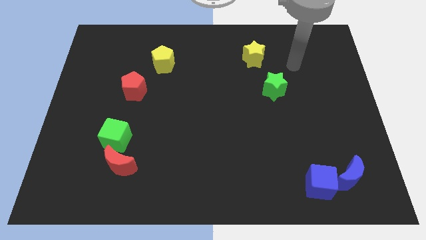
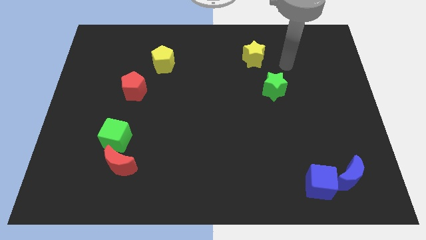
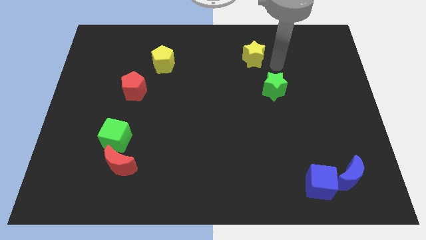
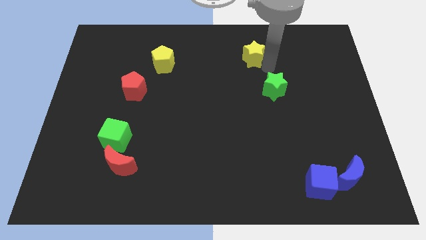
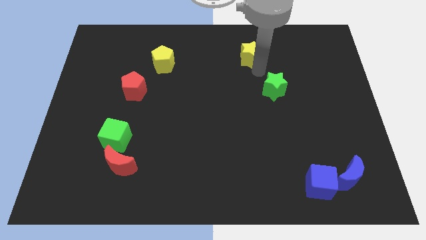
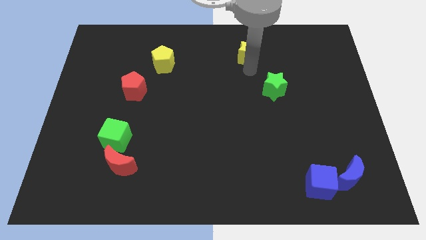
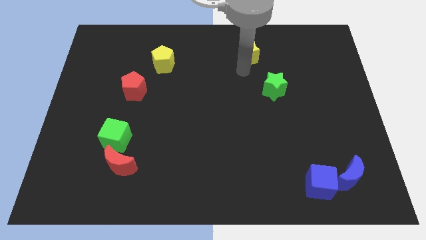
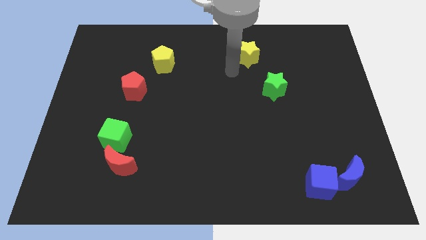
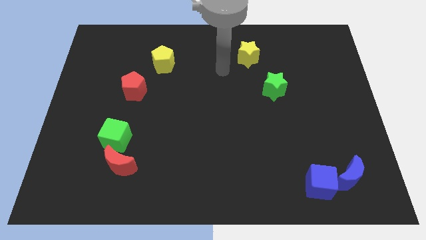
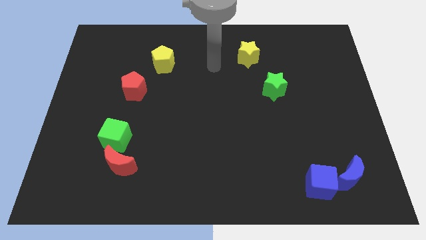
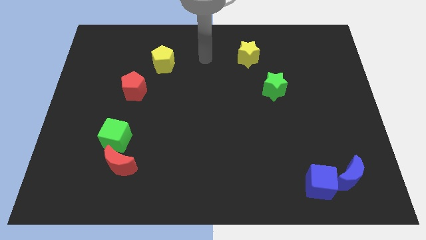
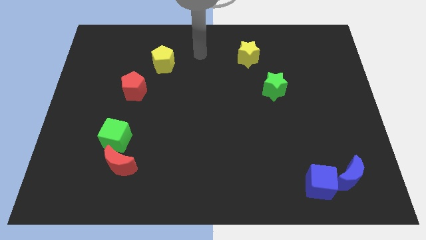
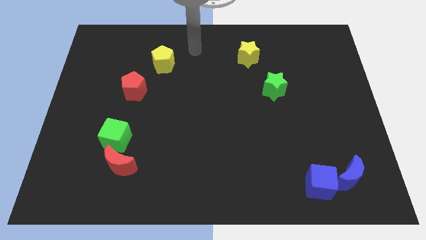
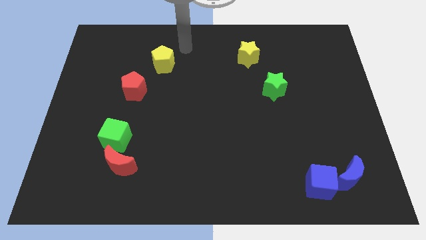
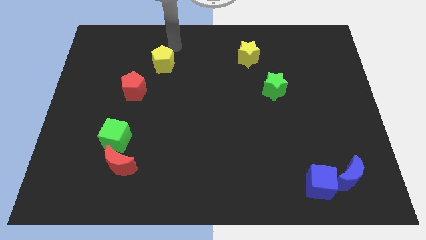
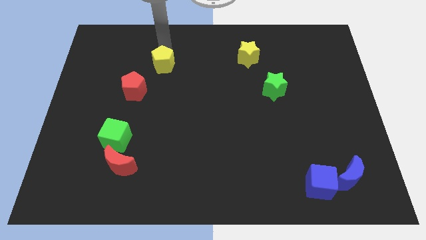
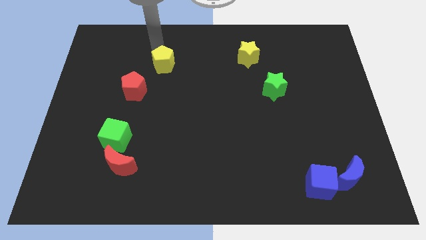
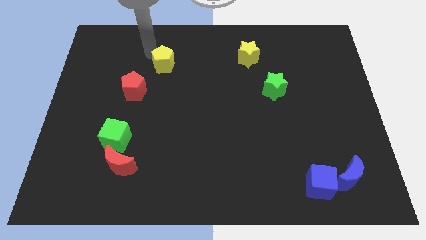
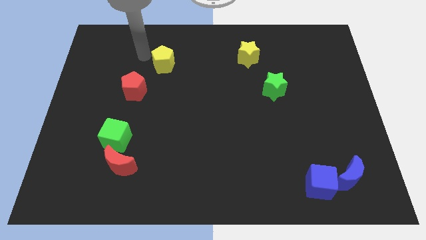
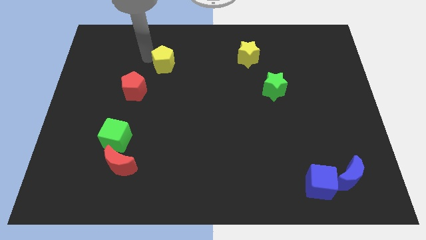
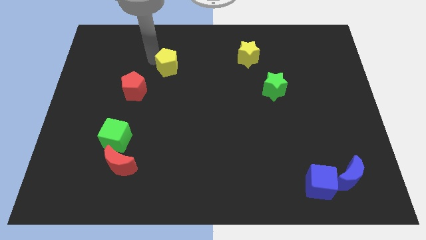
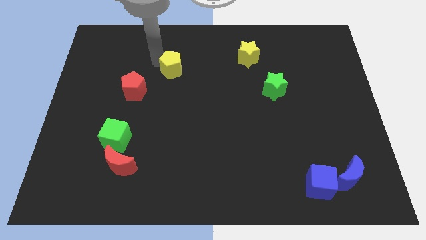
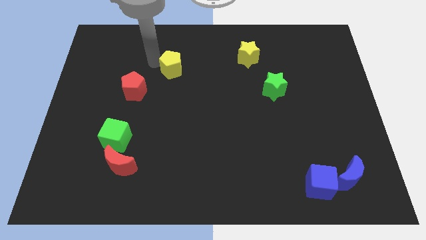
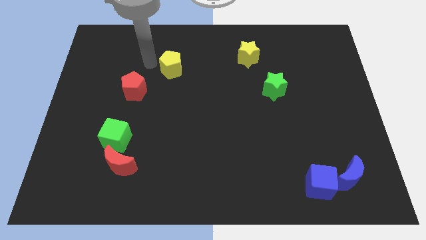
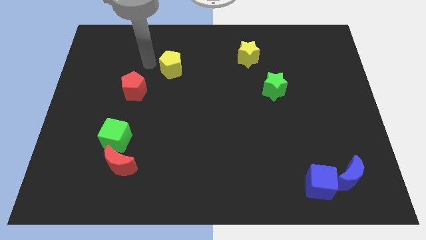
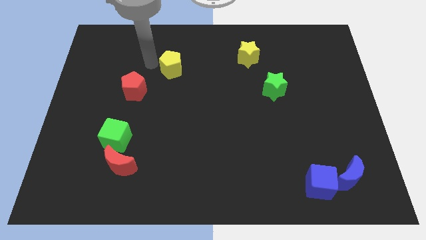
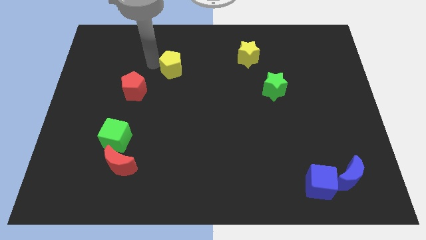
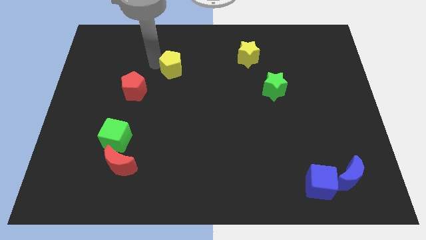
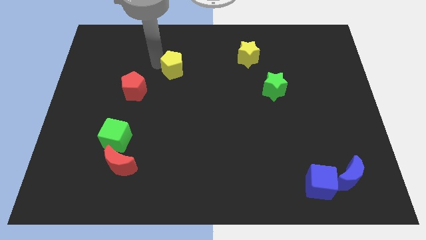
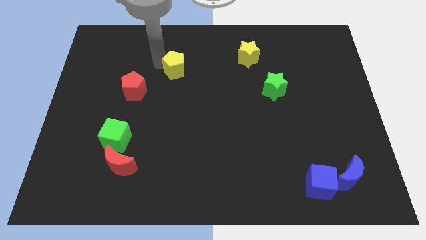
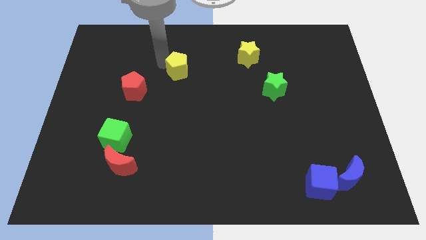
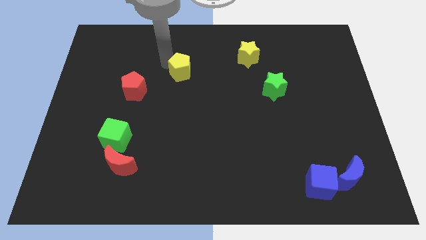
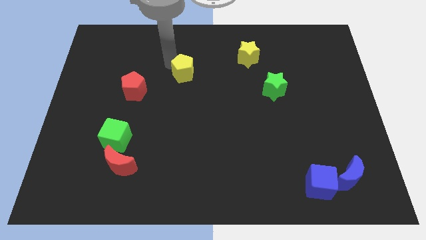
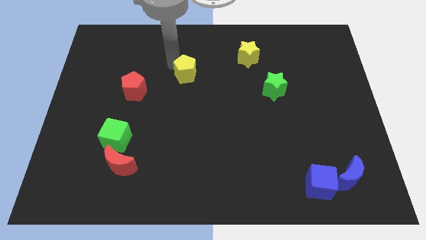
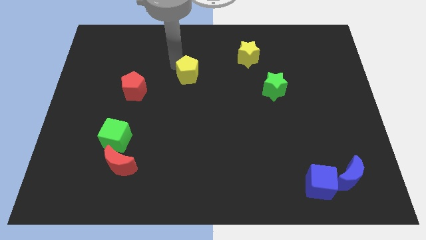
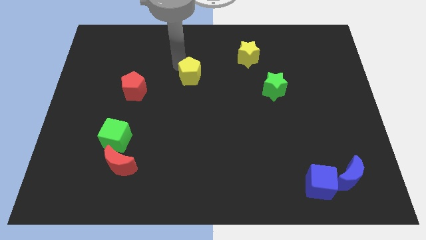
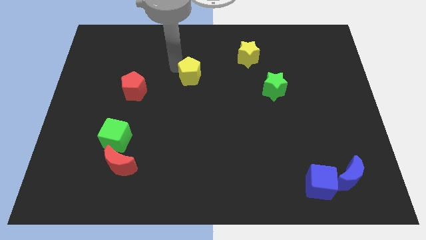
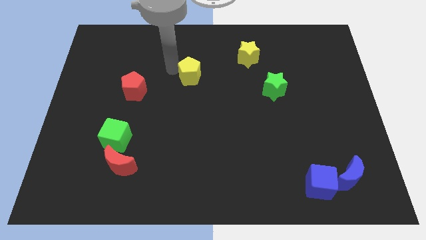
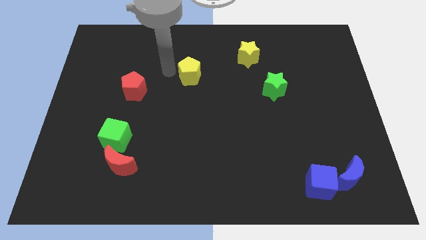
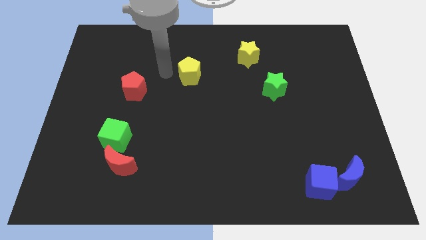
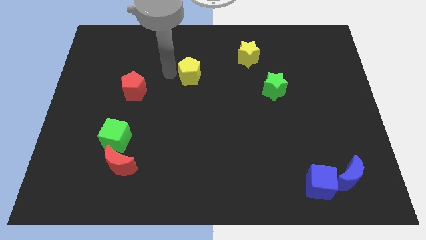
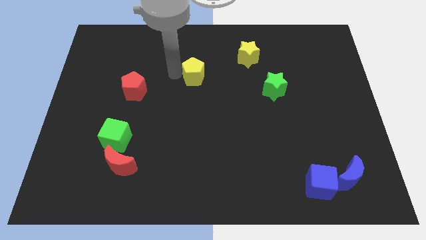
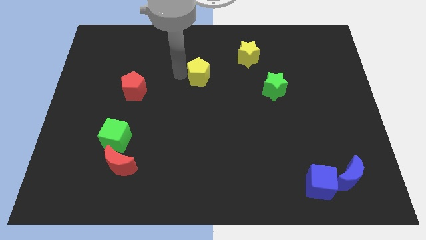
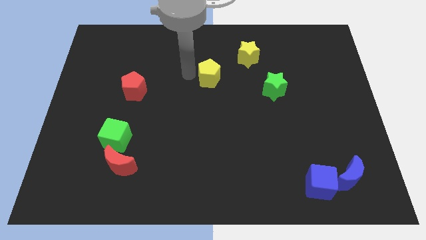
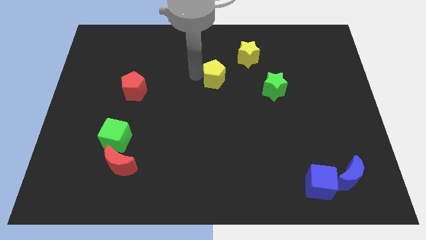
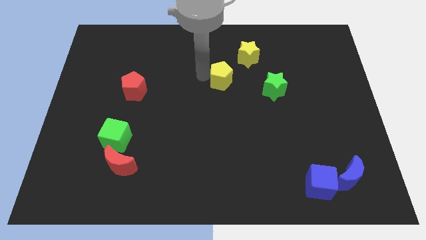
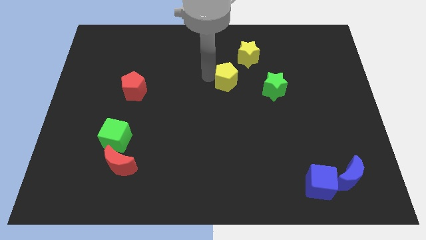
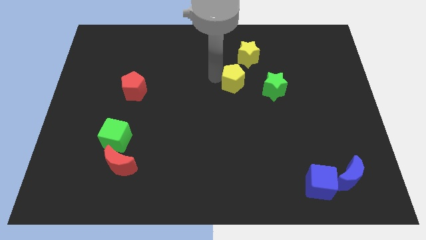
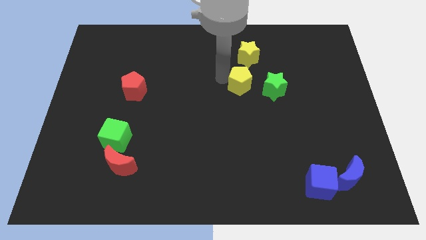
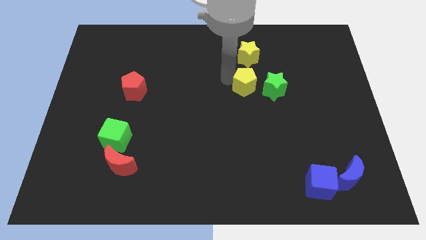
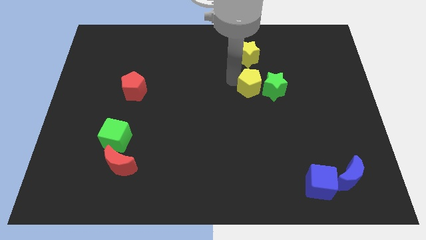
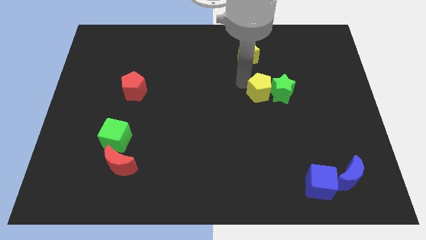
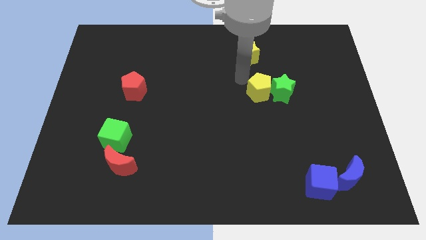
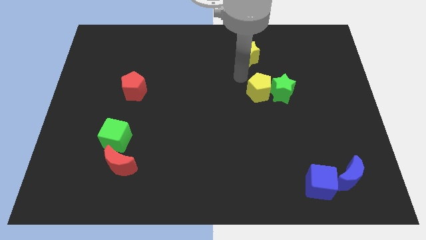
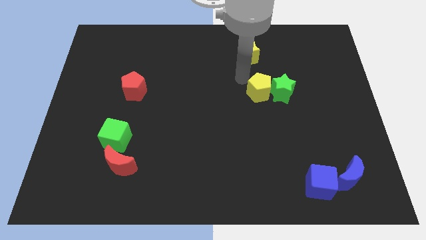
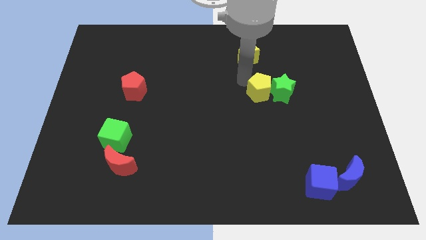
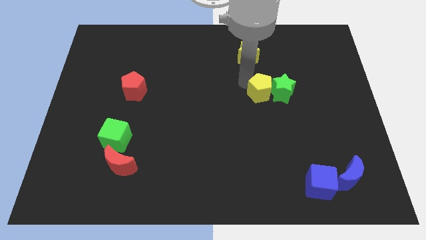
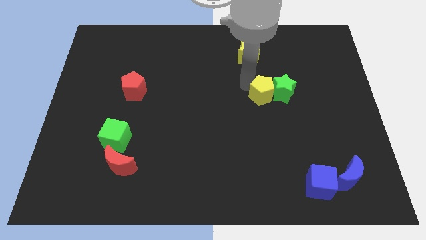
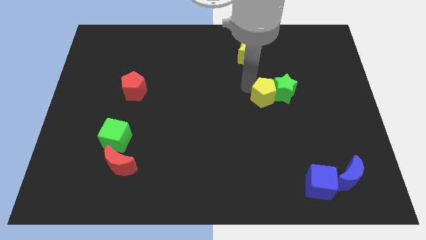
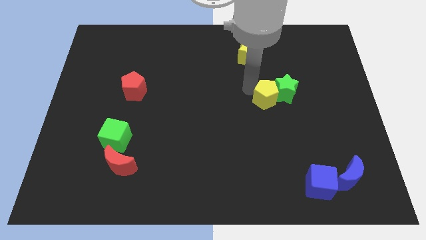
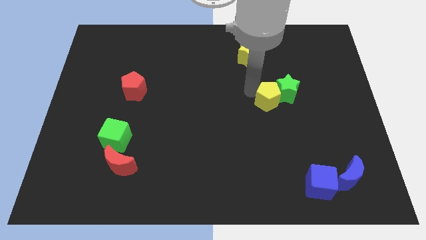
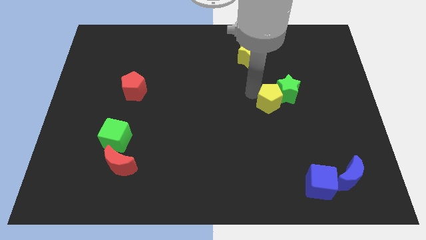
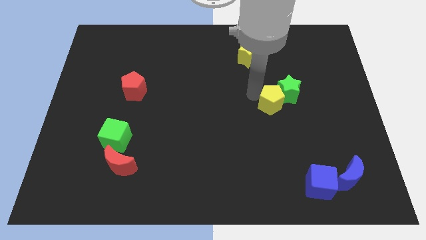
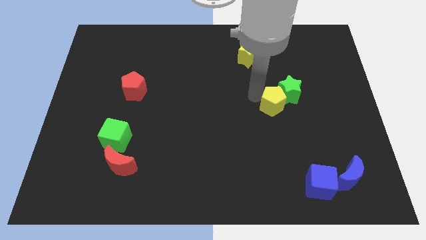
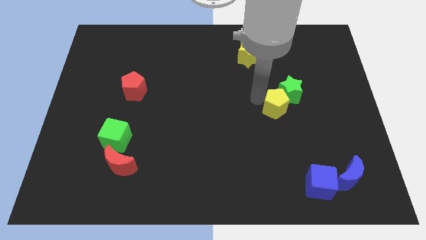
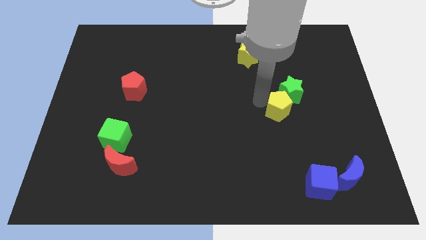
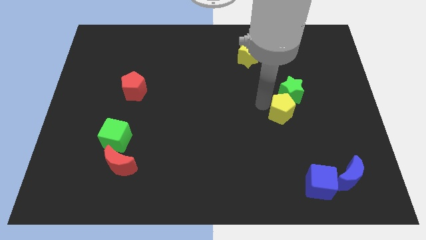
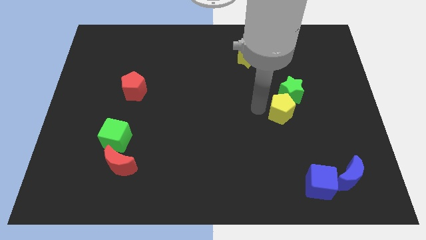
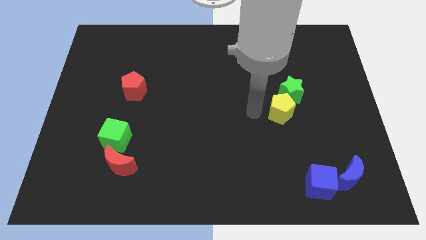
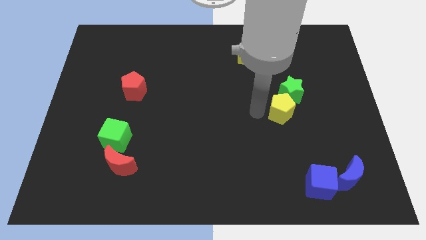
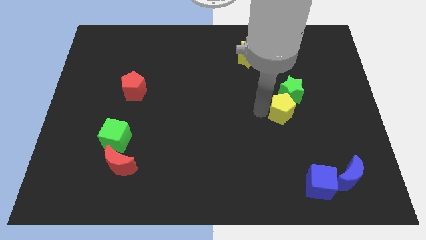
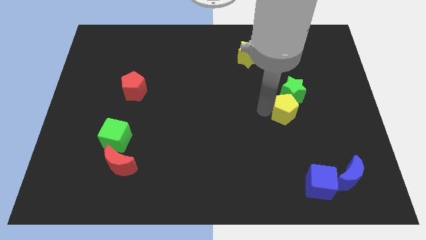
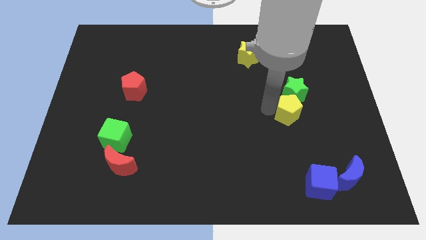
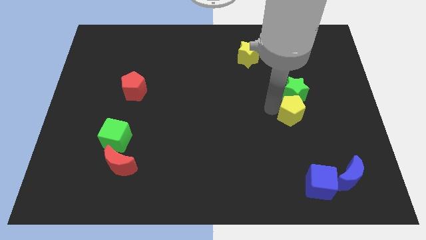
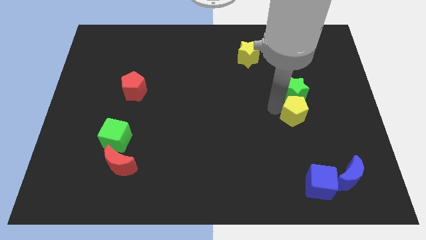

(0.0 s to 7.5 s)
move the yellow pentagon diagonally down and to the right of the green star
